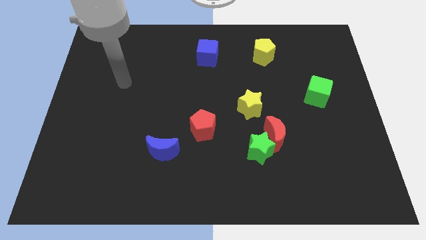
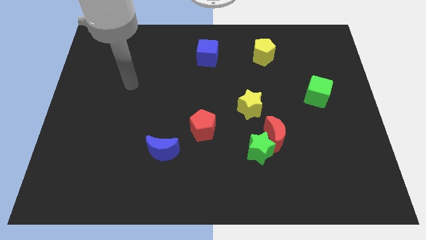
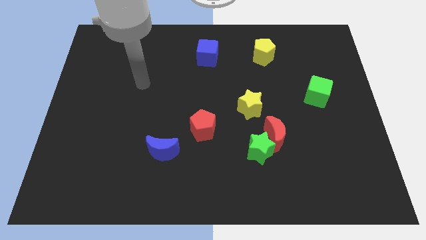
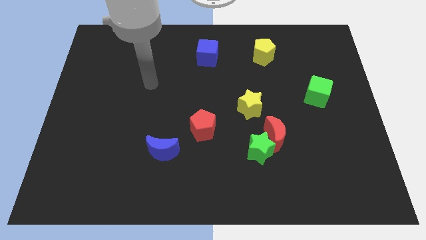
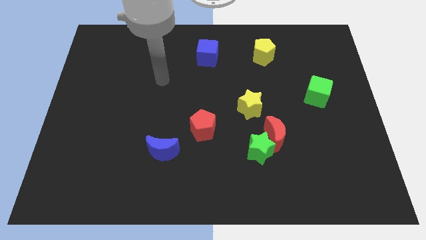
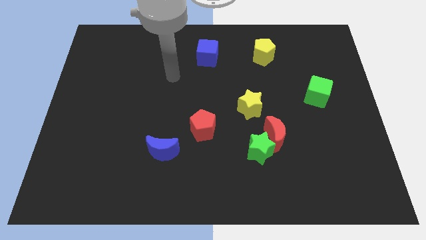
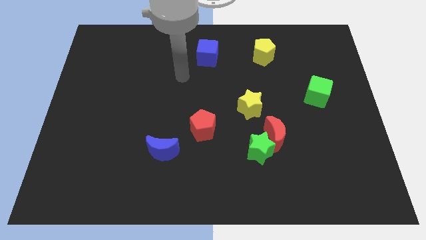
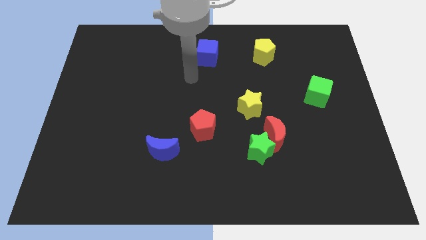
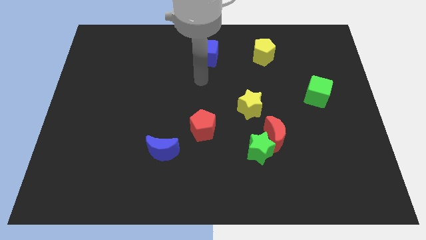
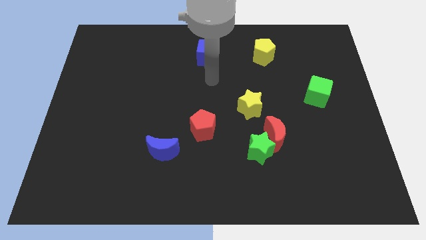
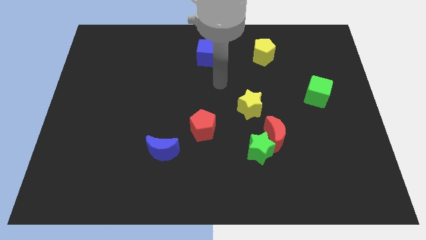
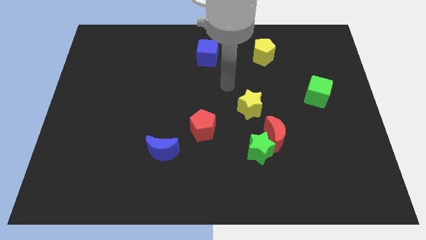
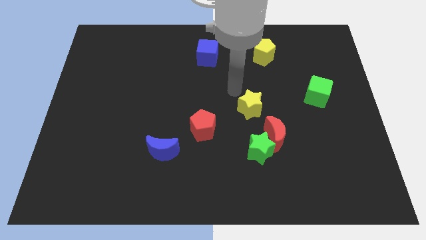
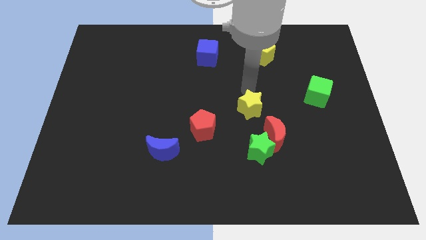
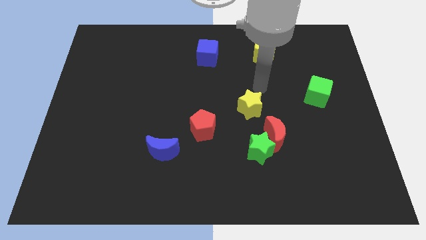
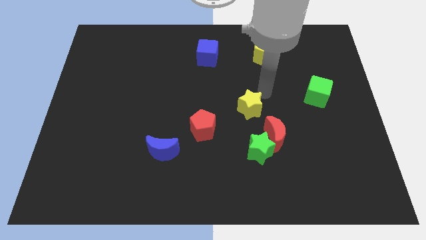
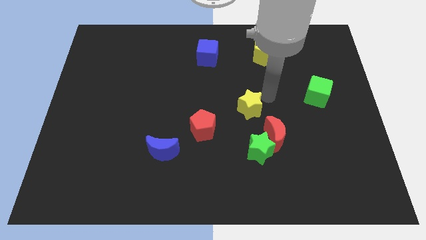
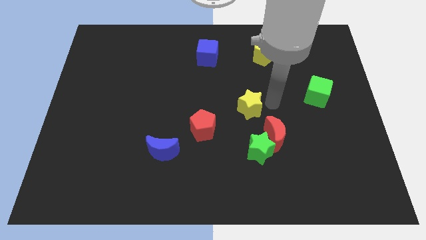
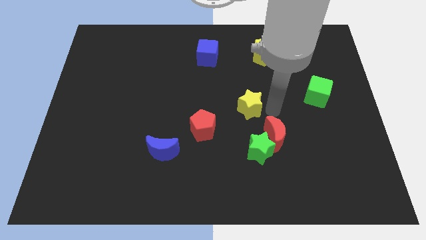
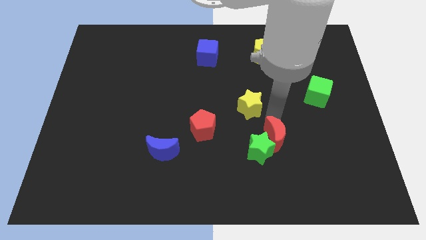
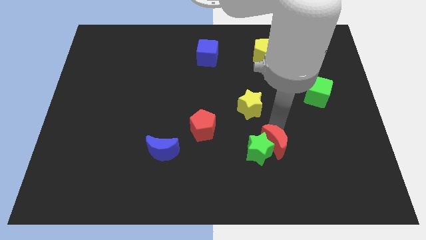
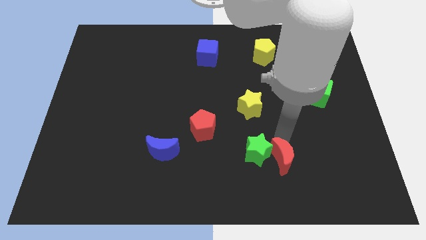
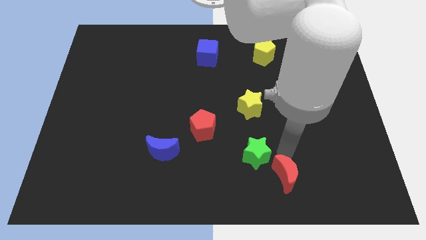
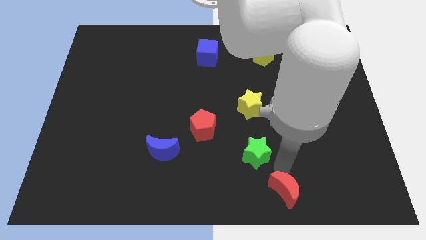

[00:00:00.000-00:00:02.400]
separate the green star from the red moon

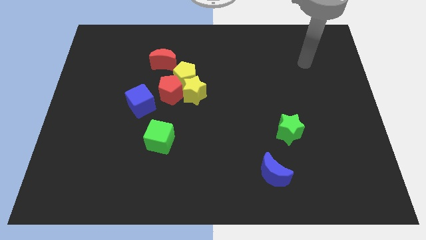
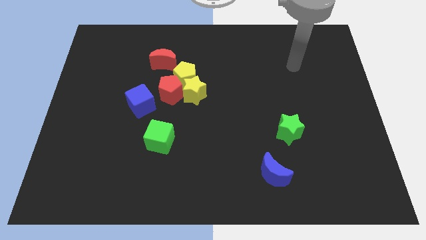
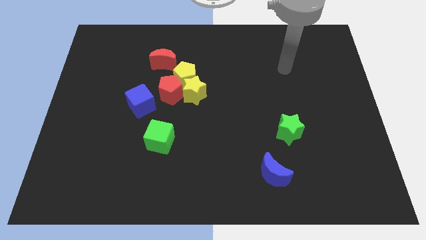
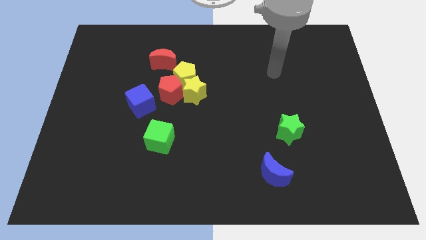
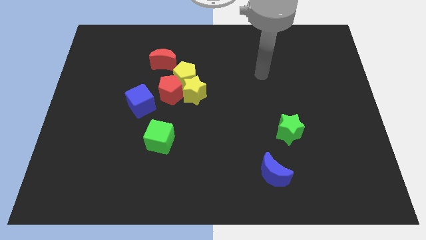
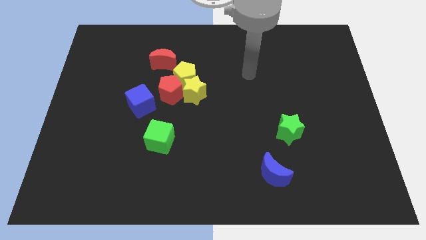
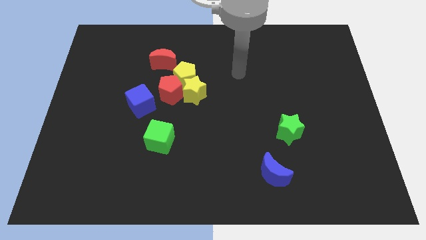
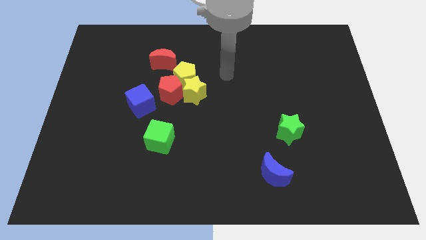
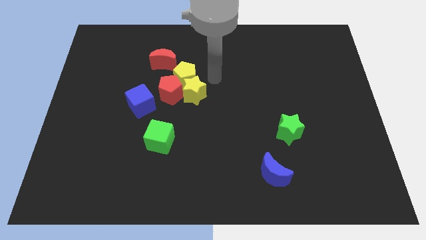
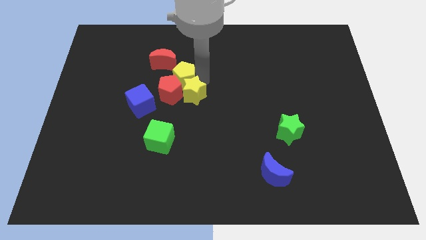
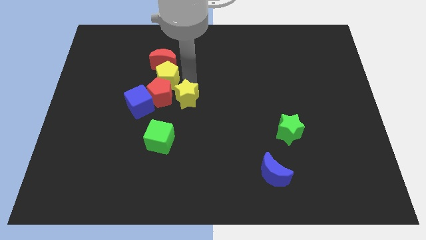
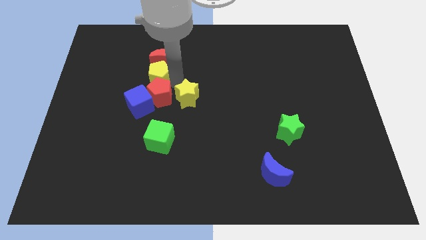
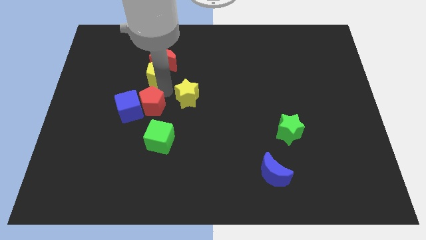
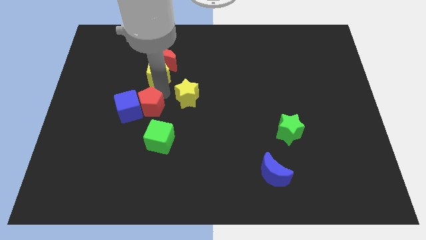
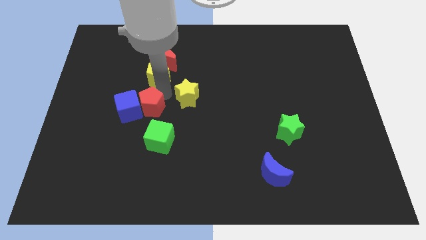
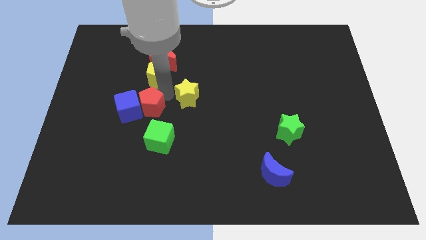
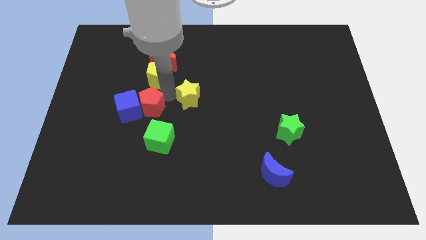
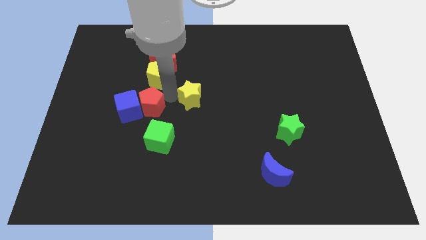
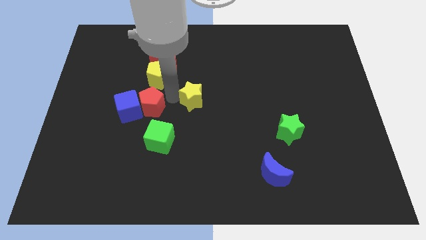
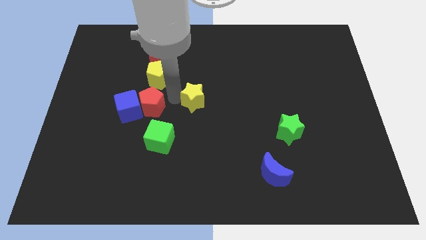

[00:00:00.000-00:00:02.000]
move the yellow star away from the yellow pentagon and red pentagon

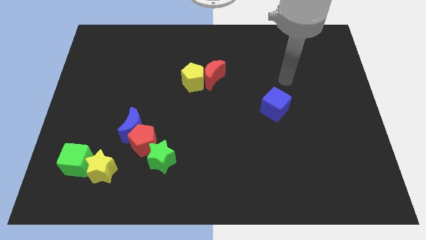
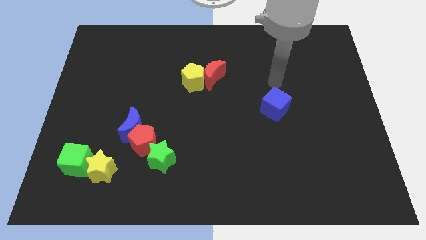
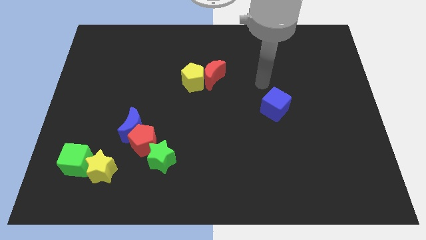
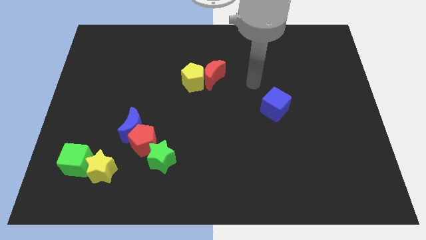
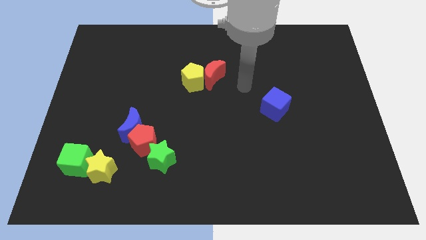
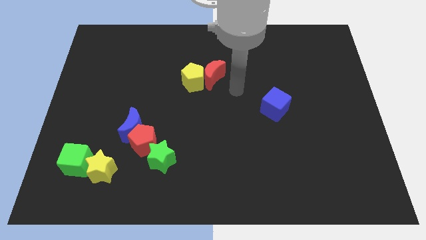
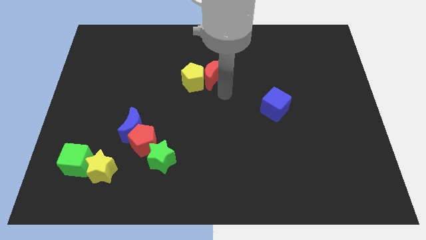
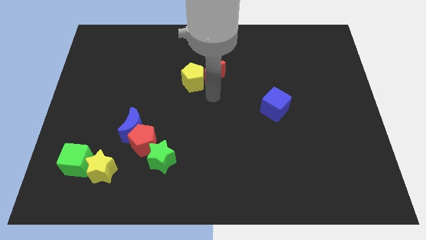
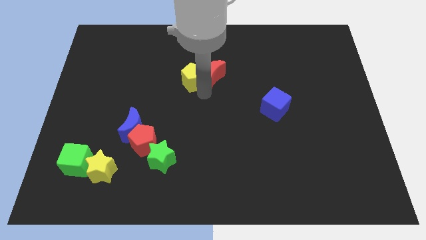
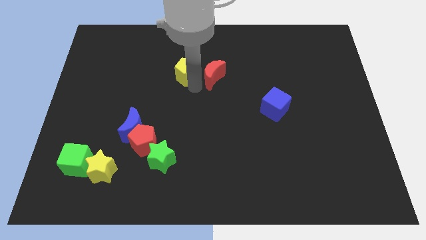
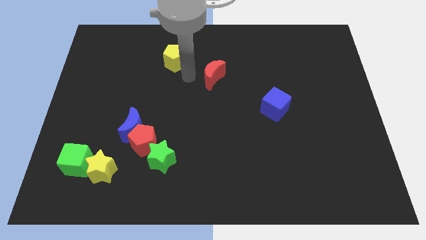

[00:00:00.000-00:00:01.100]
pull the red moon apart from the yellow pentagon

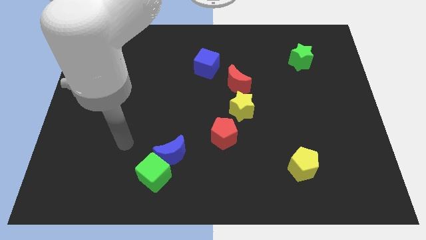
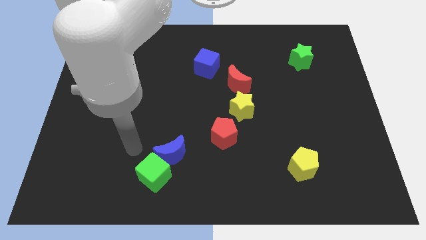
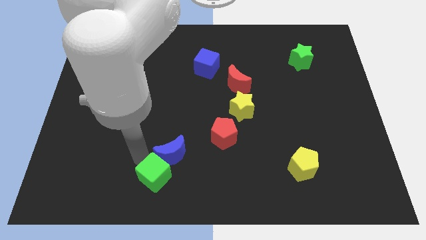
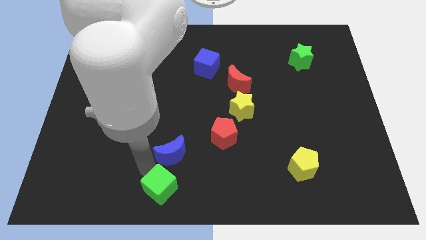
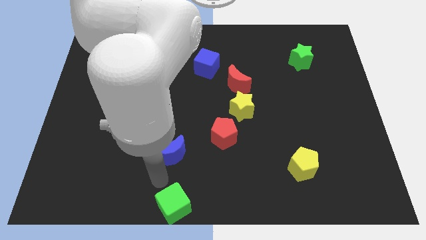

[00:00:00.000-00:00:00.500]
pull the blue moon apart from the green cube

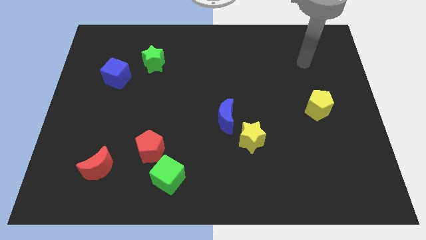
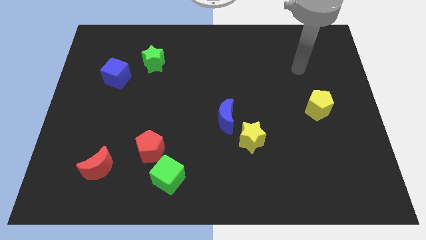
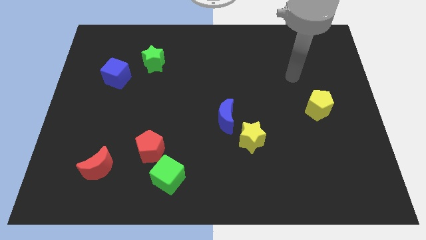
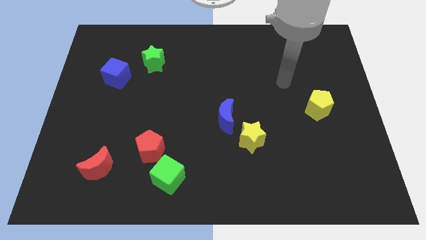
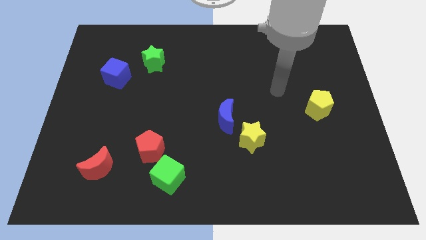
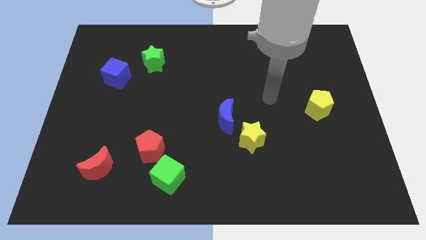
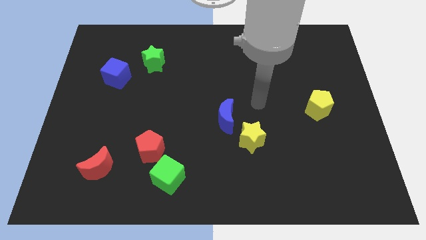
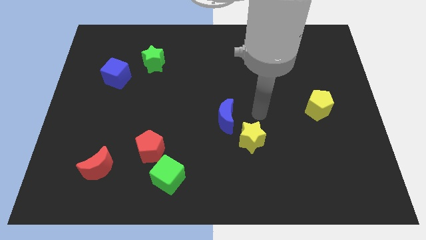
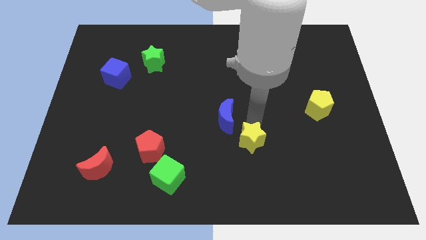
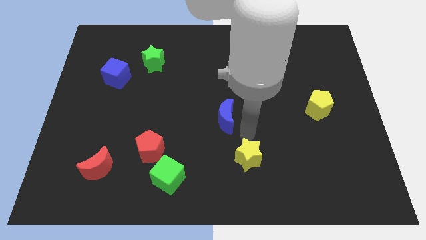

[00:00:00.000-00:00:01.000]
separate the blue moon from the yellow star

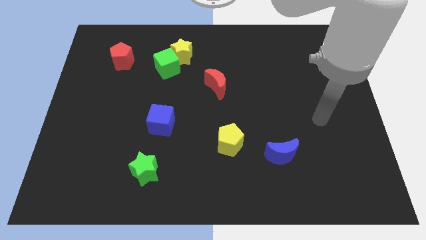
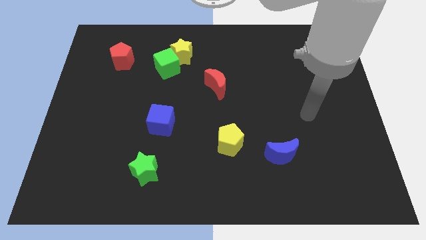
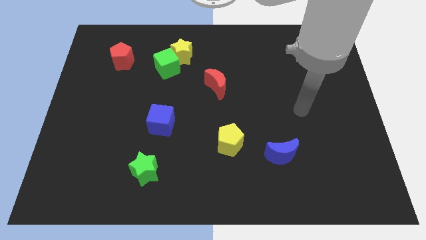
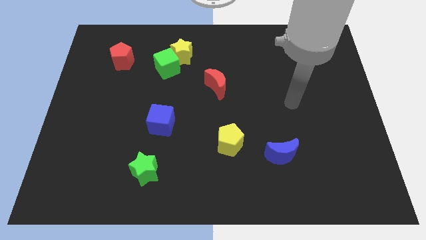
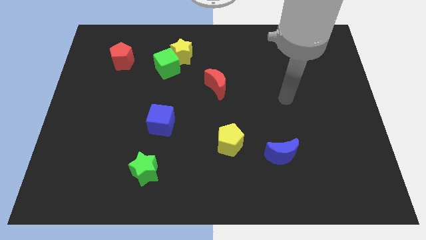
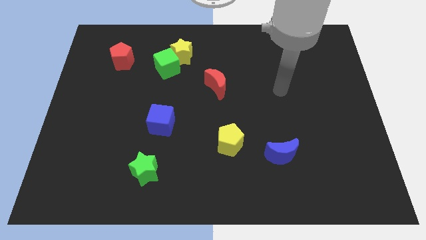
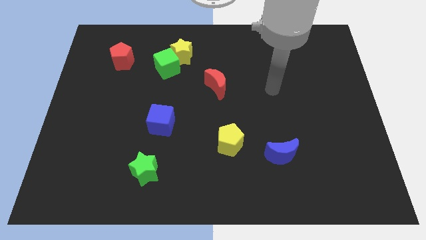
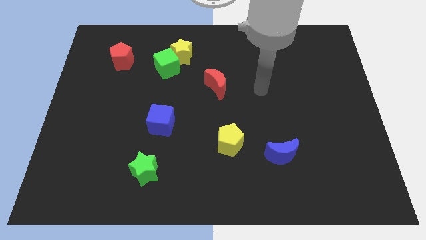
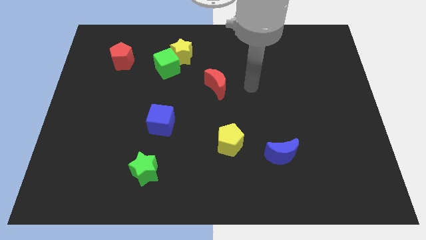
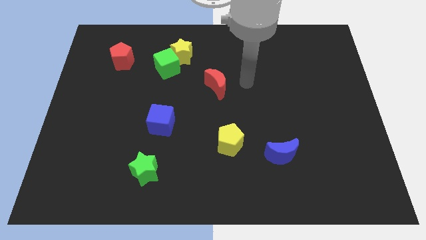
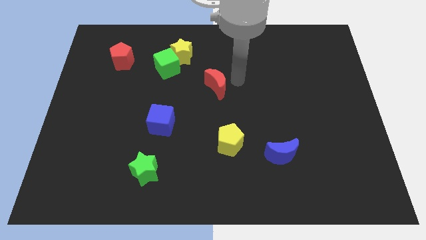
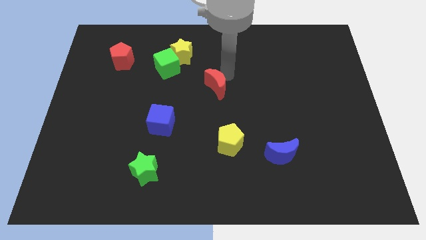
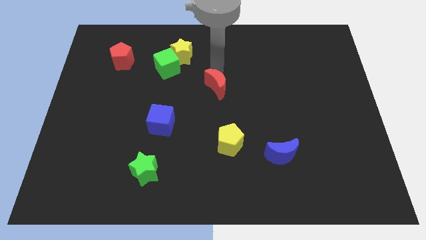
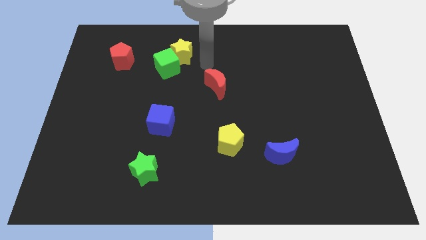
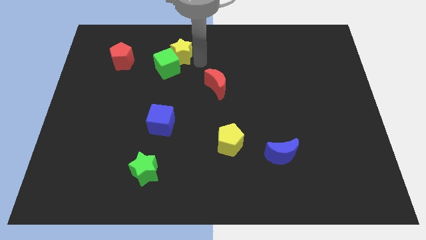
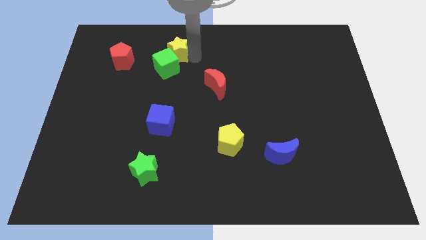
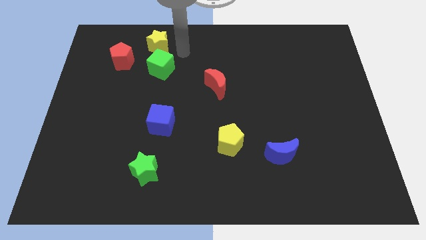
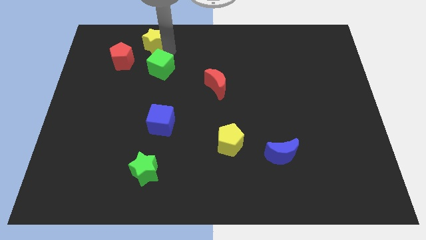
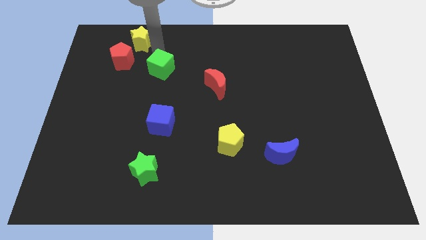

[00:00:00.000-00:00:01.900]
separate the green cube from the yellow star

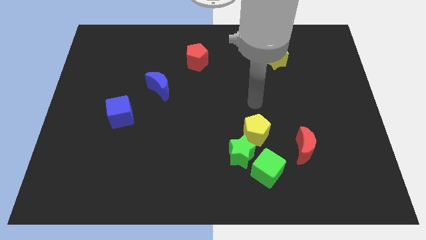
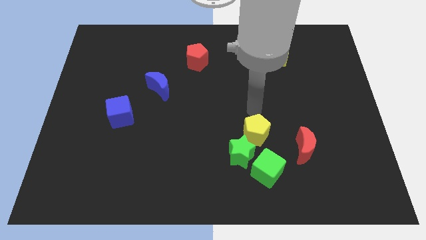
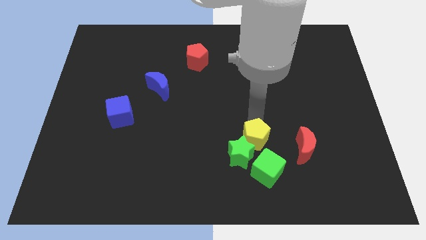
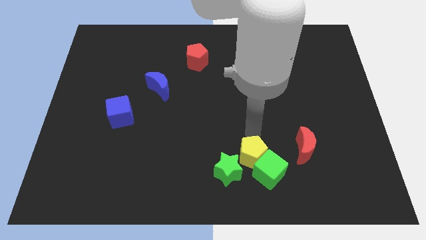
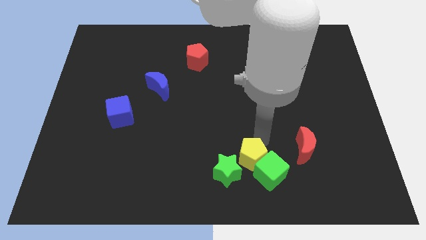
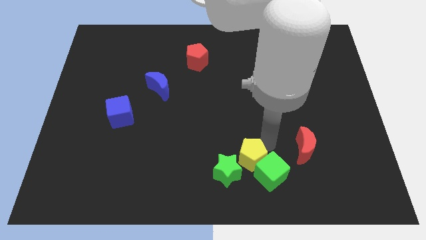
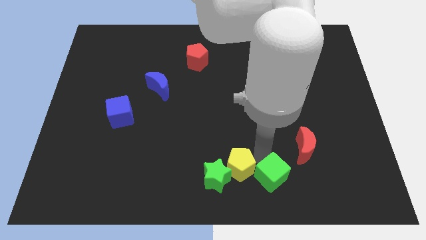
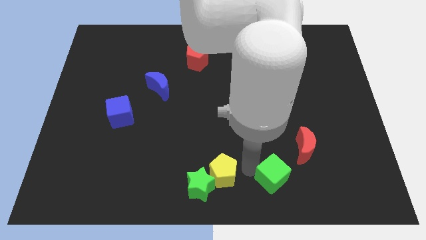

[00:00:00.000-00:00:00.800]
pull the green star apart from the yellow pentagon and green cube
